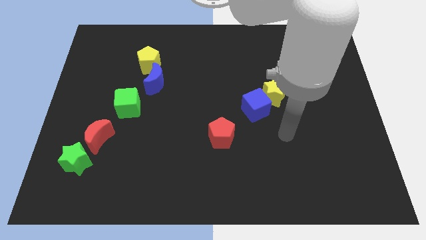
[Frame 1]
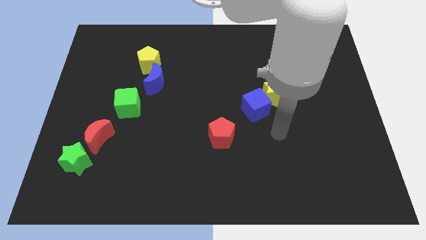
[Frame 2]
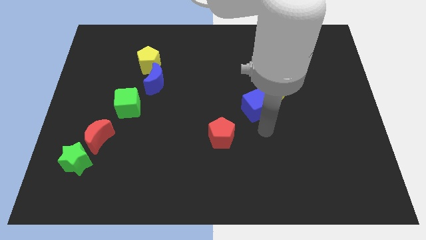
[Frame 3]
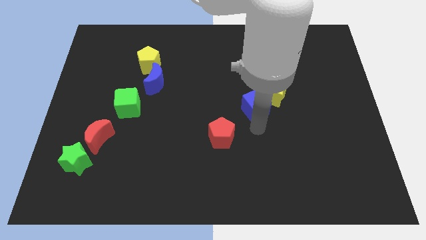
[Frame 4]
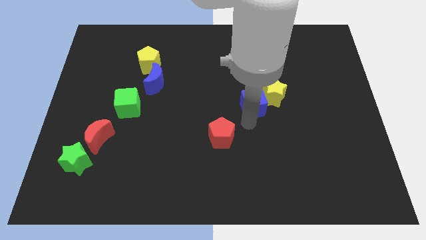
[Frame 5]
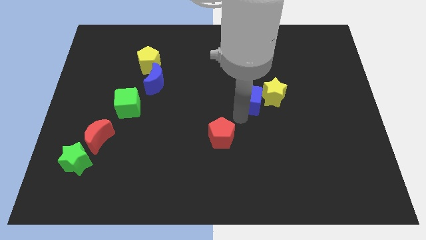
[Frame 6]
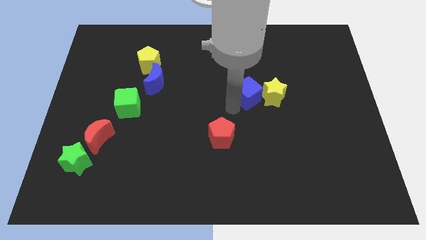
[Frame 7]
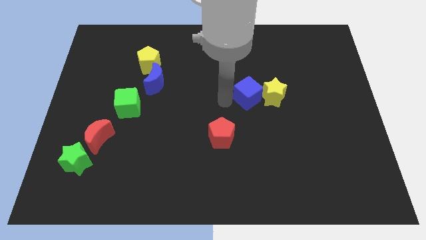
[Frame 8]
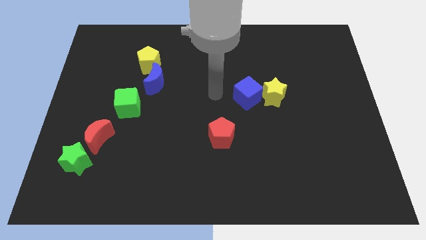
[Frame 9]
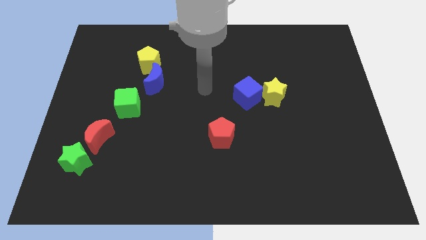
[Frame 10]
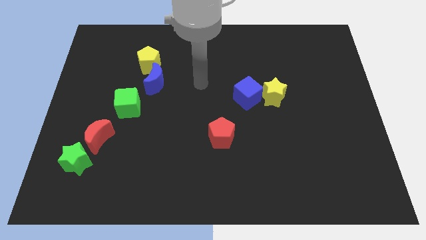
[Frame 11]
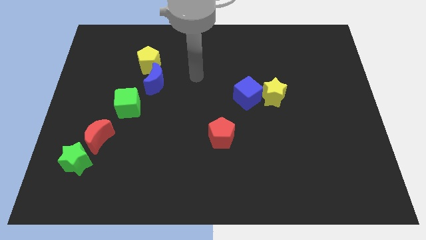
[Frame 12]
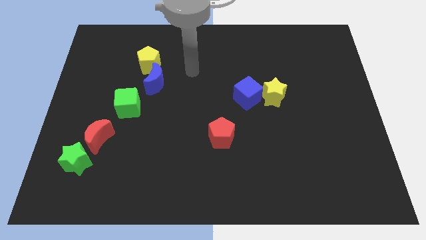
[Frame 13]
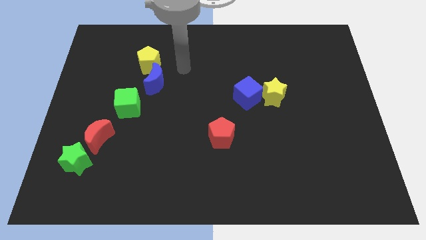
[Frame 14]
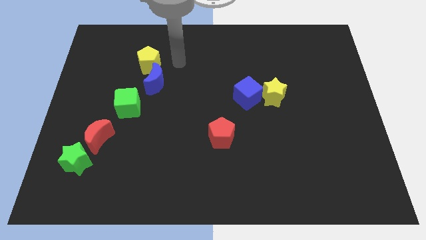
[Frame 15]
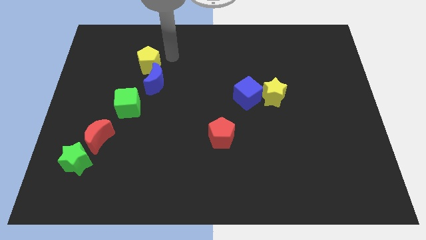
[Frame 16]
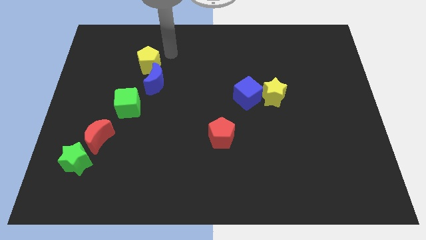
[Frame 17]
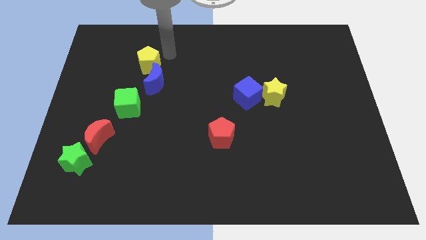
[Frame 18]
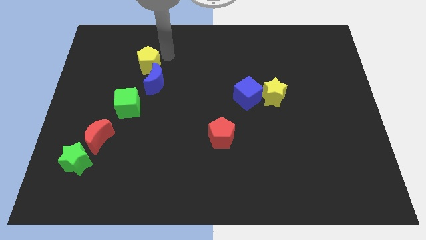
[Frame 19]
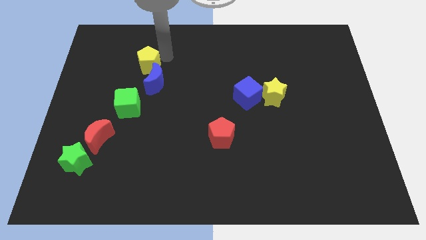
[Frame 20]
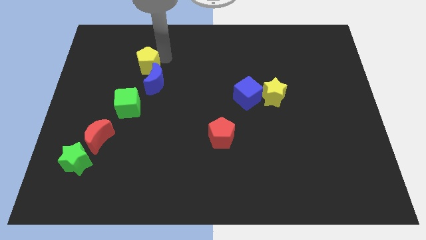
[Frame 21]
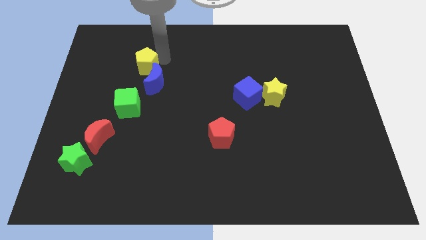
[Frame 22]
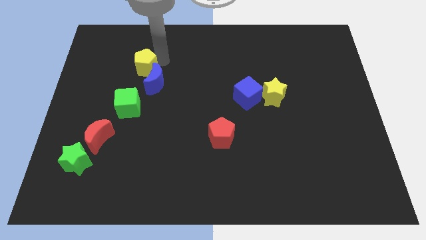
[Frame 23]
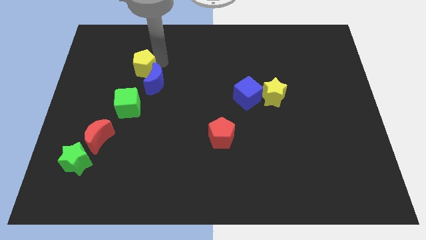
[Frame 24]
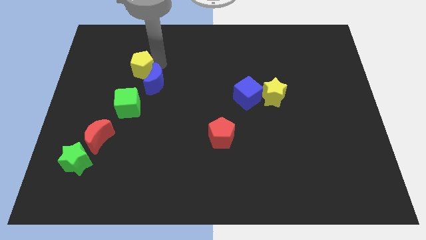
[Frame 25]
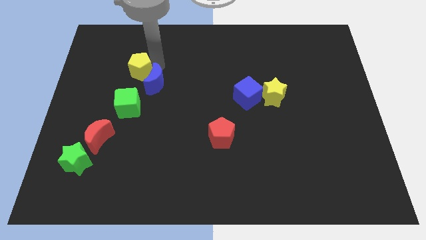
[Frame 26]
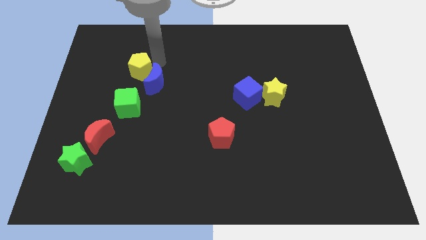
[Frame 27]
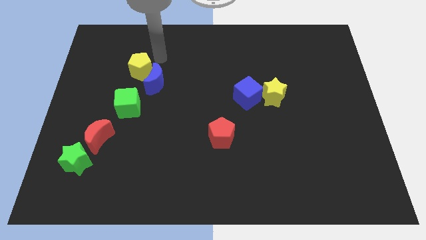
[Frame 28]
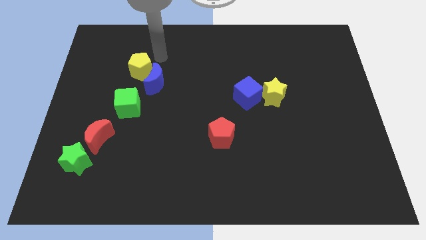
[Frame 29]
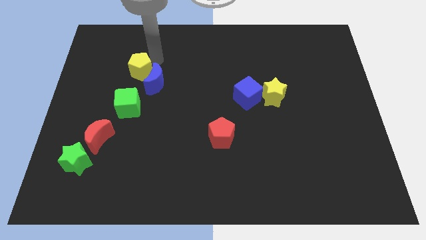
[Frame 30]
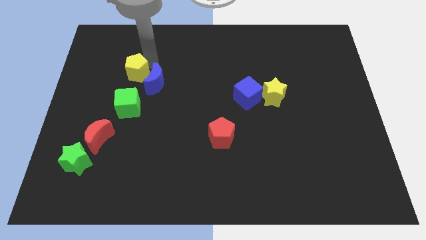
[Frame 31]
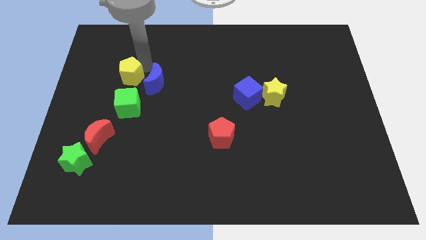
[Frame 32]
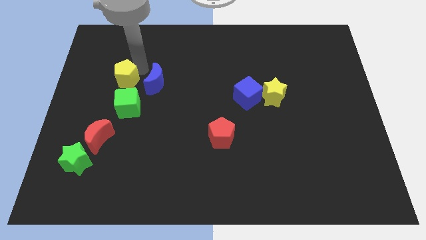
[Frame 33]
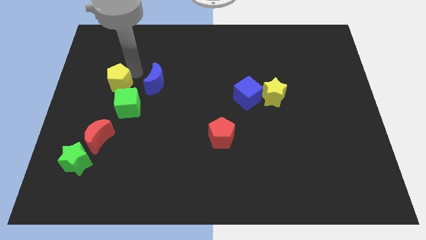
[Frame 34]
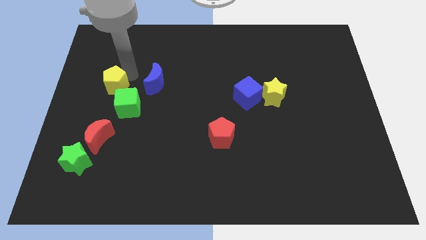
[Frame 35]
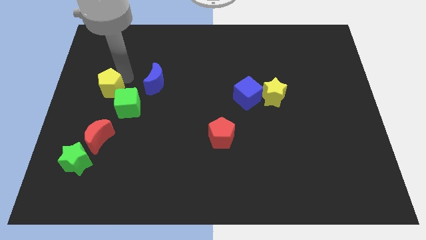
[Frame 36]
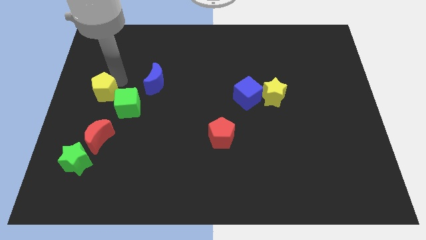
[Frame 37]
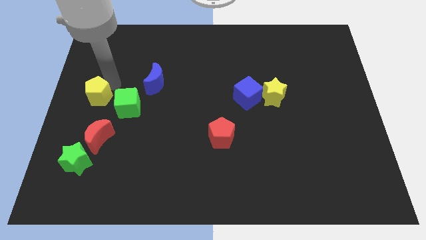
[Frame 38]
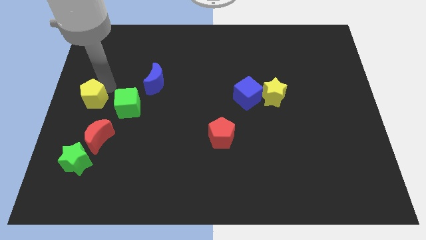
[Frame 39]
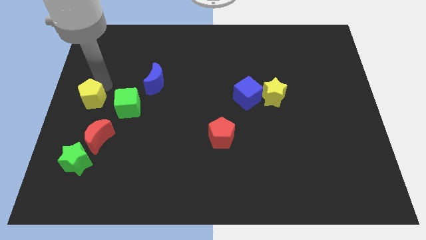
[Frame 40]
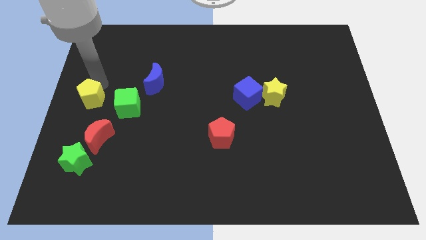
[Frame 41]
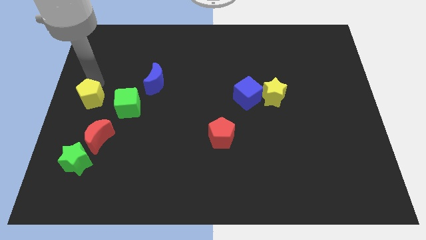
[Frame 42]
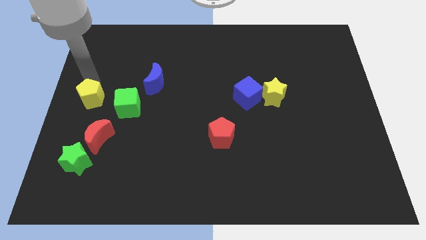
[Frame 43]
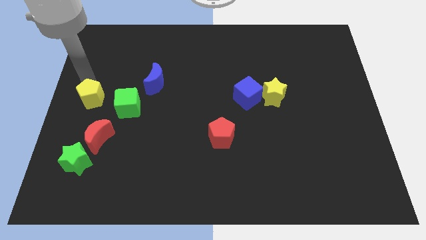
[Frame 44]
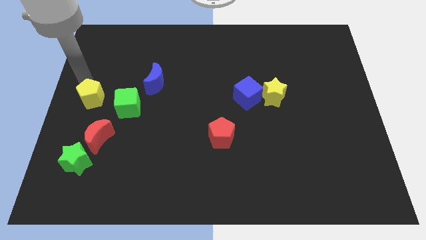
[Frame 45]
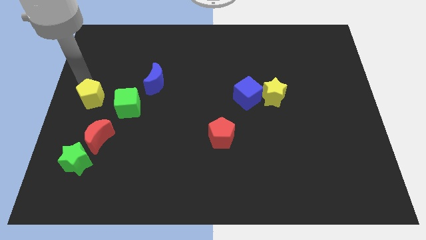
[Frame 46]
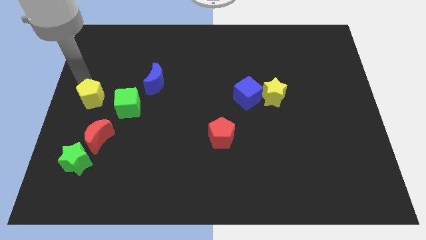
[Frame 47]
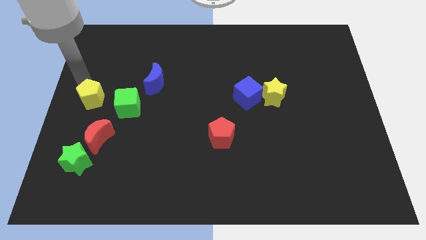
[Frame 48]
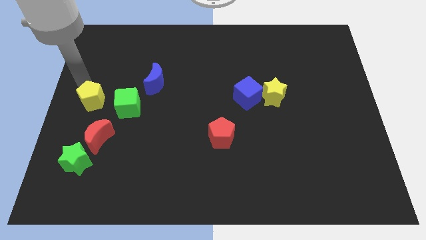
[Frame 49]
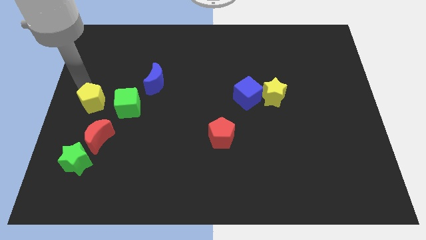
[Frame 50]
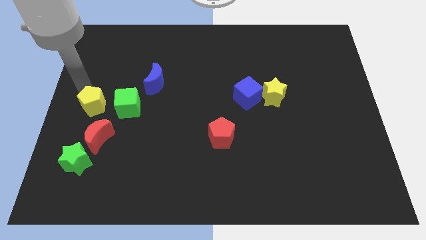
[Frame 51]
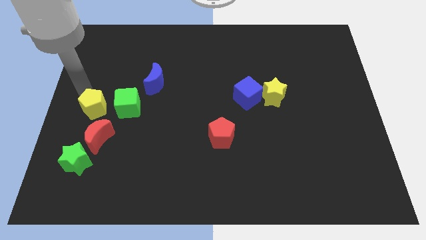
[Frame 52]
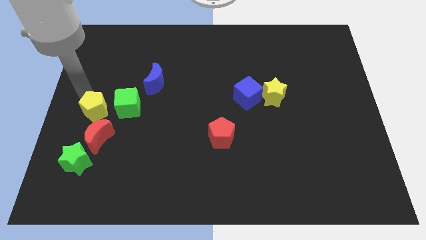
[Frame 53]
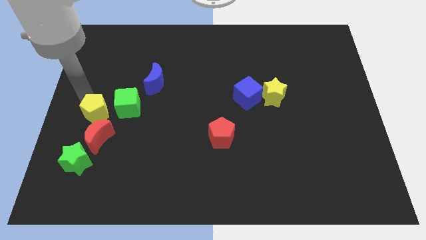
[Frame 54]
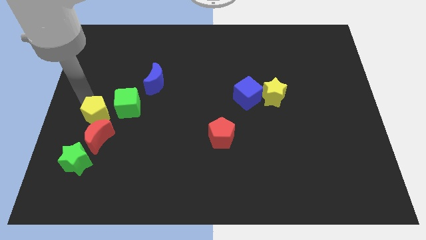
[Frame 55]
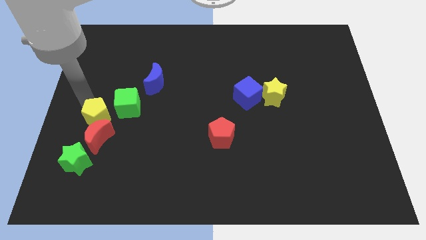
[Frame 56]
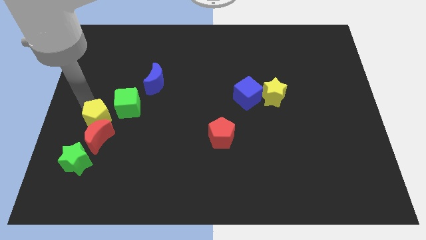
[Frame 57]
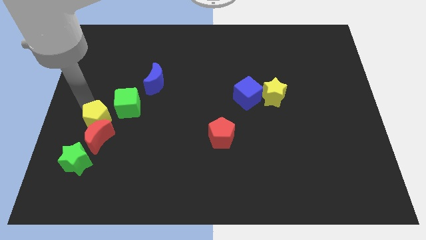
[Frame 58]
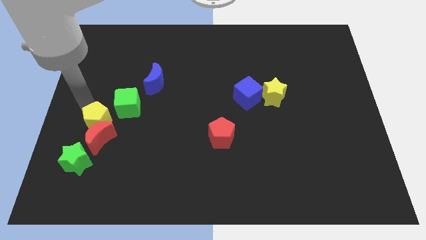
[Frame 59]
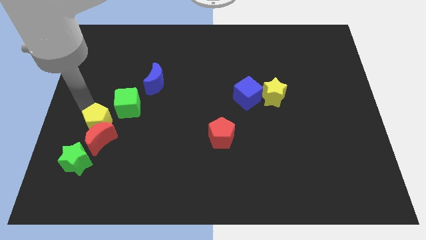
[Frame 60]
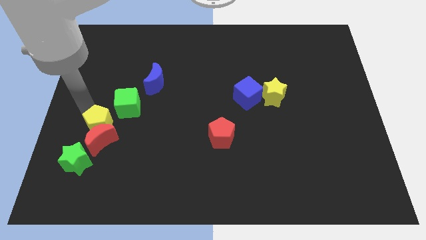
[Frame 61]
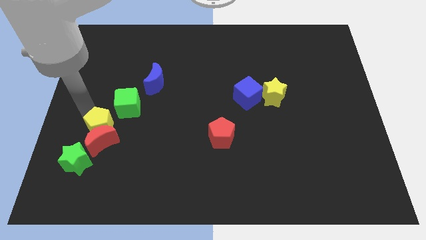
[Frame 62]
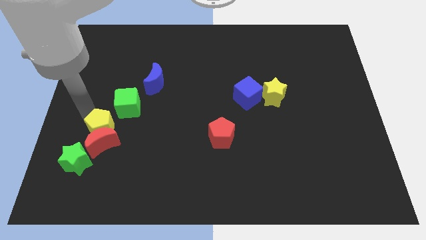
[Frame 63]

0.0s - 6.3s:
put the yellow pentagon to the bottom side of the green cube

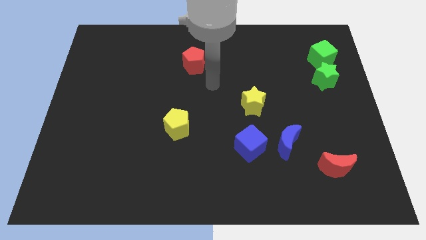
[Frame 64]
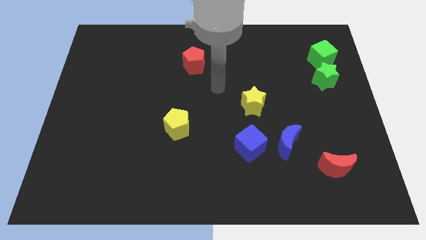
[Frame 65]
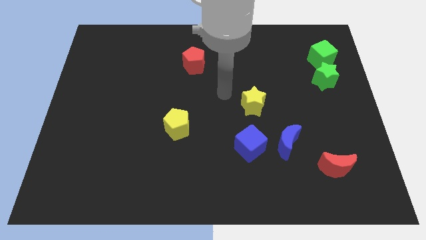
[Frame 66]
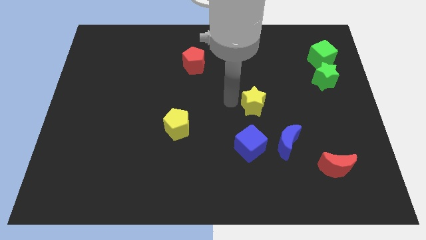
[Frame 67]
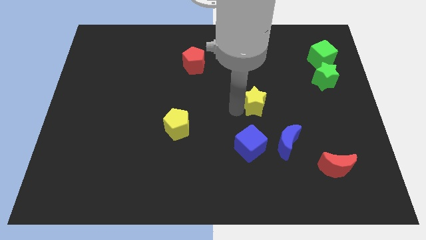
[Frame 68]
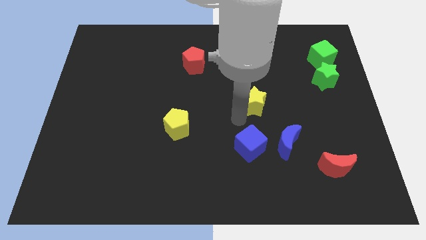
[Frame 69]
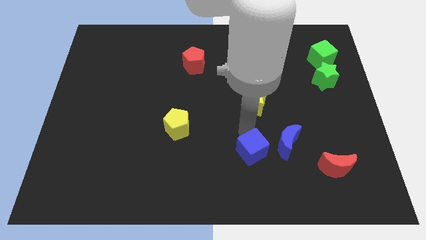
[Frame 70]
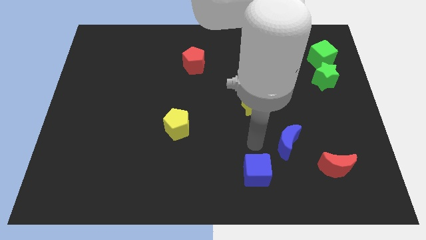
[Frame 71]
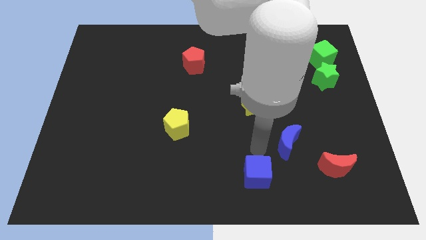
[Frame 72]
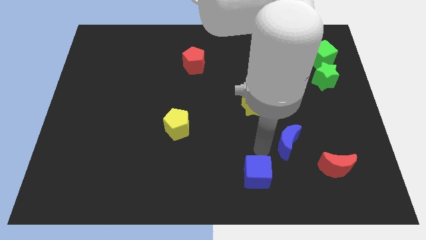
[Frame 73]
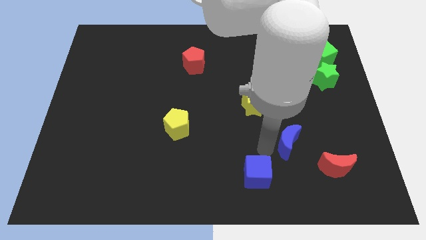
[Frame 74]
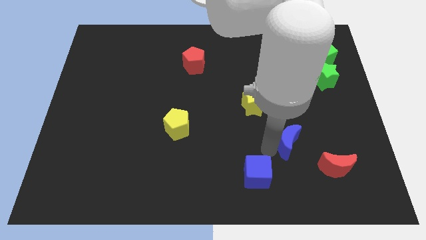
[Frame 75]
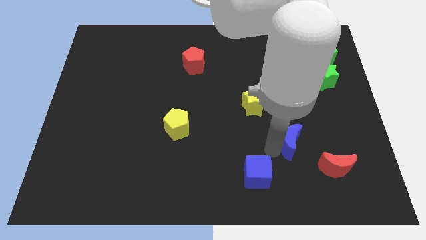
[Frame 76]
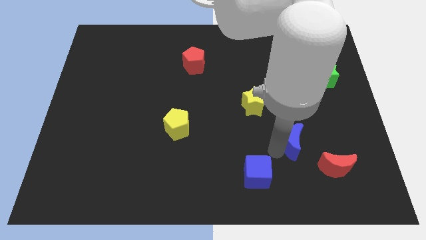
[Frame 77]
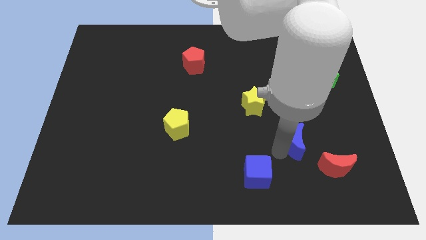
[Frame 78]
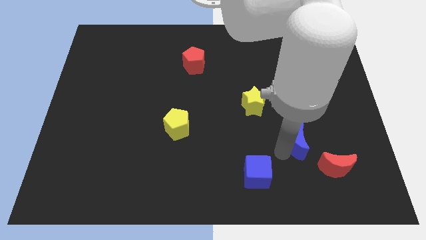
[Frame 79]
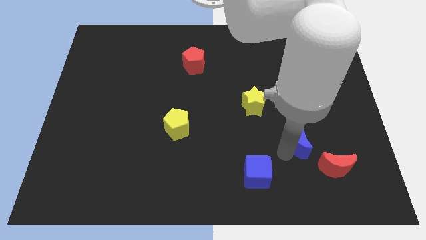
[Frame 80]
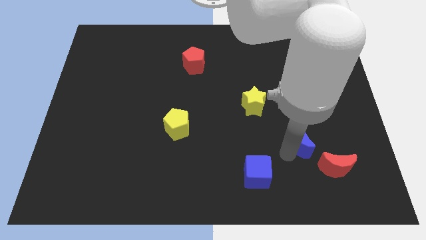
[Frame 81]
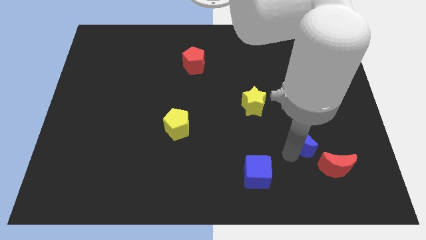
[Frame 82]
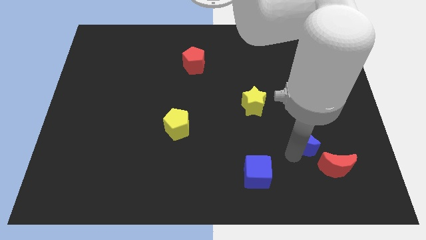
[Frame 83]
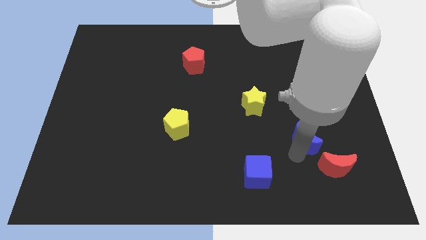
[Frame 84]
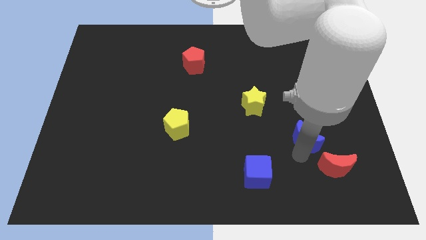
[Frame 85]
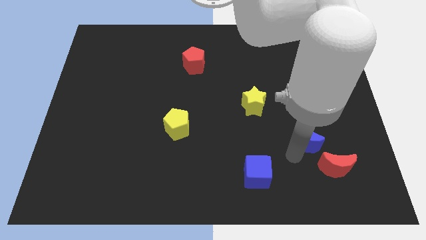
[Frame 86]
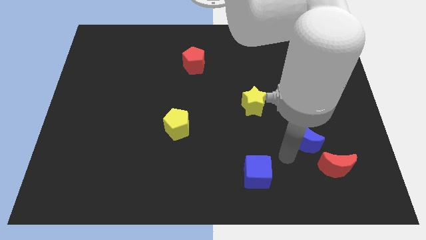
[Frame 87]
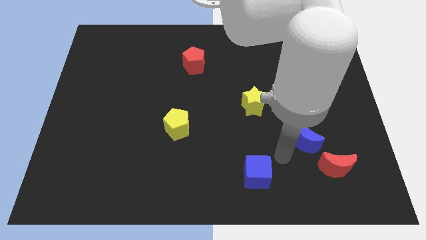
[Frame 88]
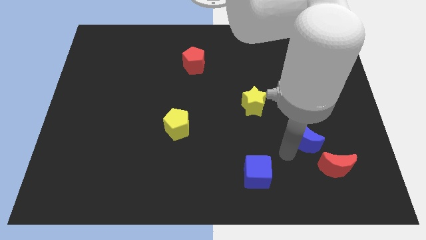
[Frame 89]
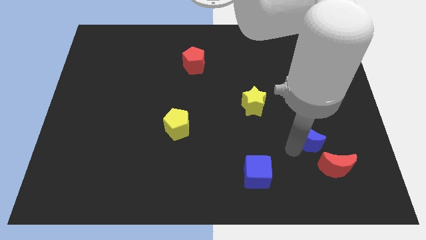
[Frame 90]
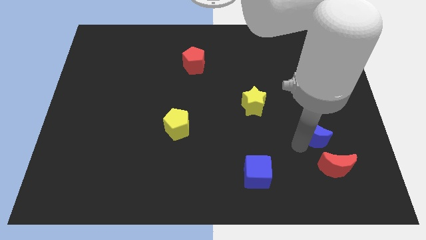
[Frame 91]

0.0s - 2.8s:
slide the blue moon above the red moon
